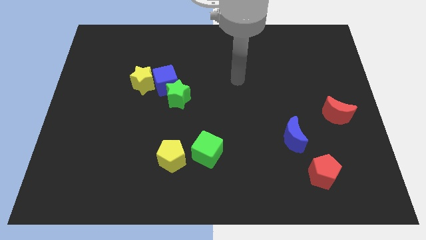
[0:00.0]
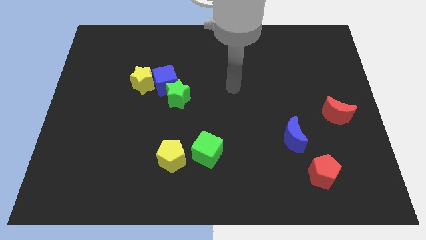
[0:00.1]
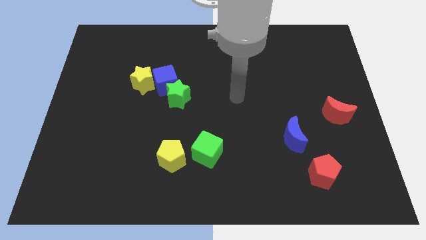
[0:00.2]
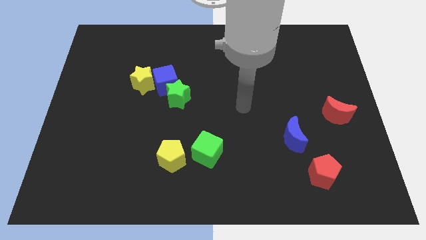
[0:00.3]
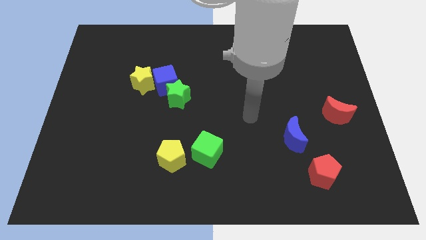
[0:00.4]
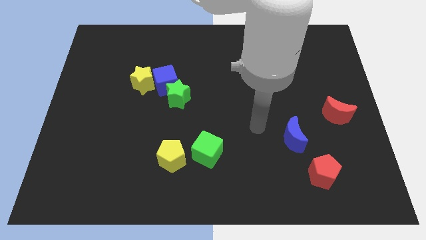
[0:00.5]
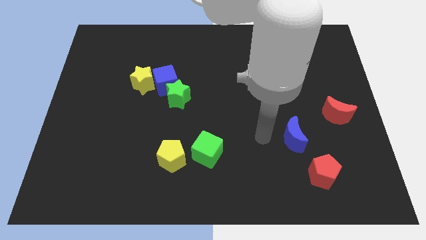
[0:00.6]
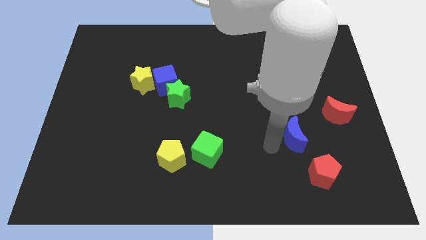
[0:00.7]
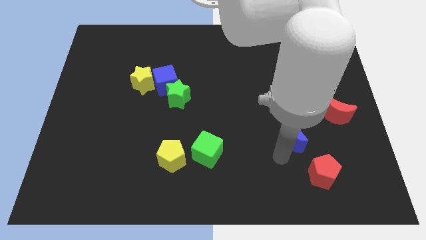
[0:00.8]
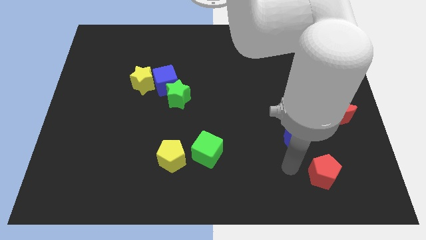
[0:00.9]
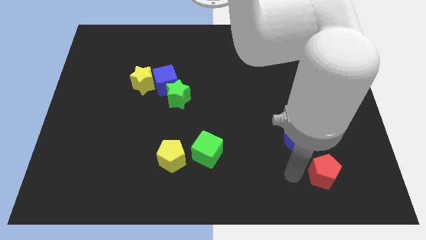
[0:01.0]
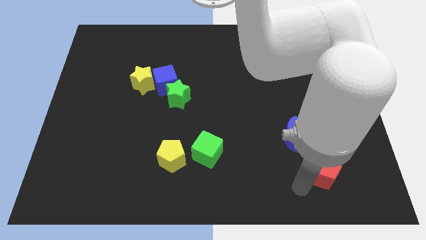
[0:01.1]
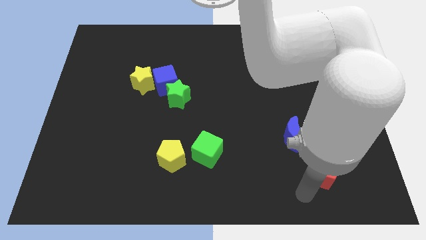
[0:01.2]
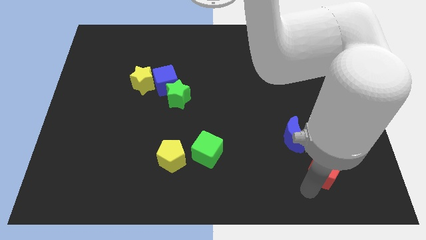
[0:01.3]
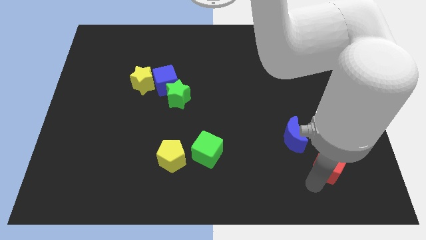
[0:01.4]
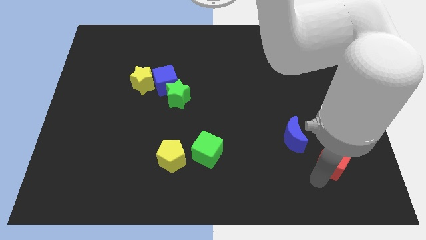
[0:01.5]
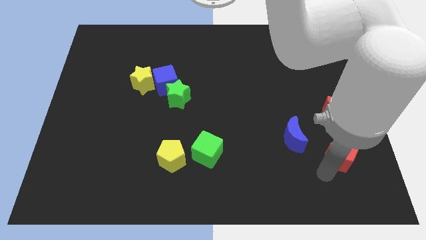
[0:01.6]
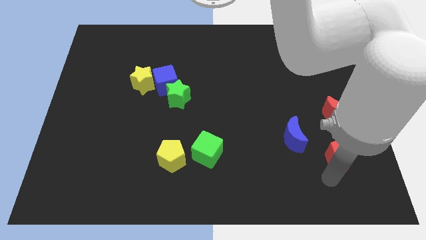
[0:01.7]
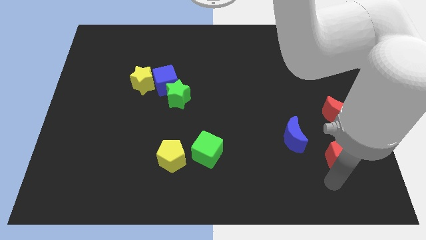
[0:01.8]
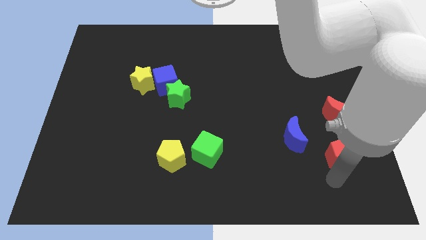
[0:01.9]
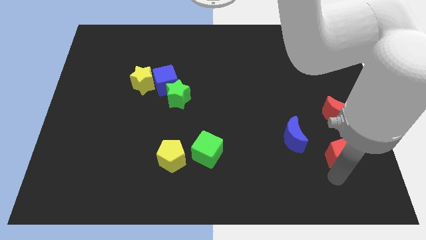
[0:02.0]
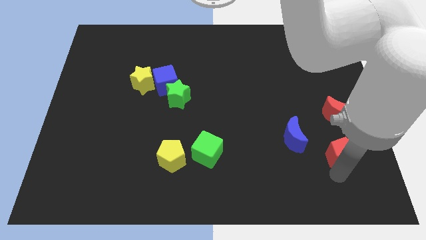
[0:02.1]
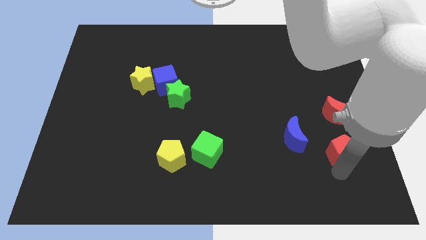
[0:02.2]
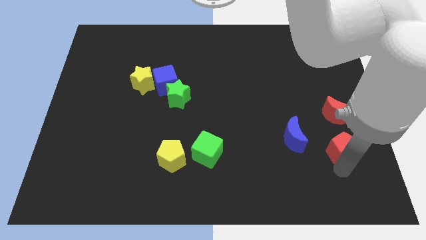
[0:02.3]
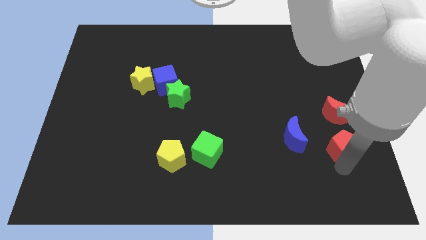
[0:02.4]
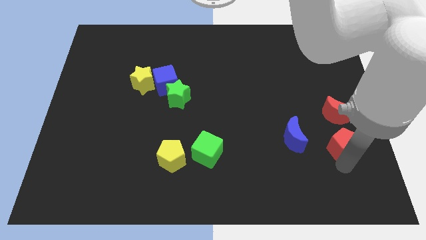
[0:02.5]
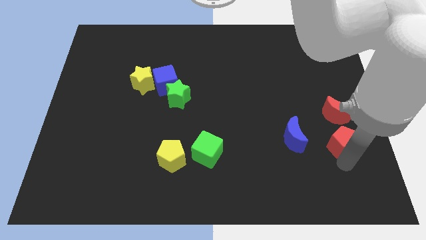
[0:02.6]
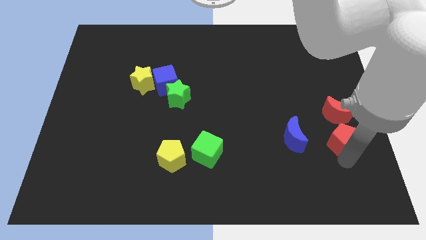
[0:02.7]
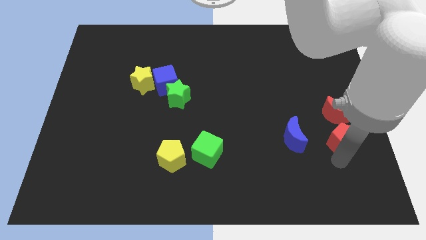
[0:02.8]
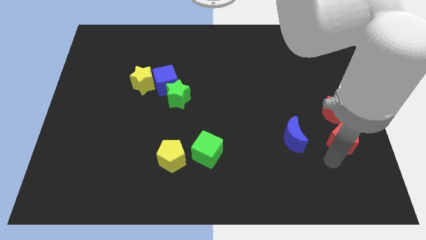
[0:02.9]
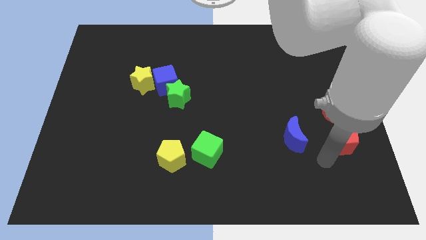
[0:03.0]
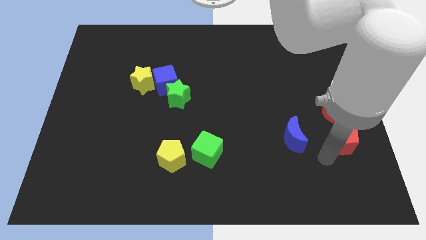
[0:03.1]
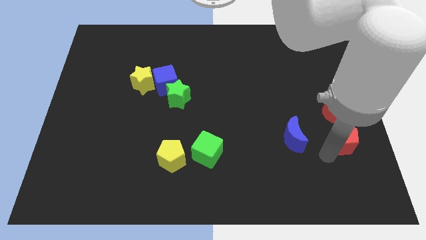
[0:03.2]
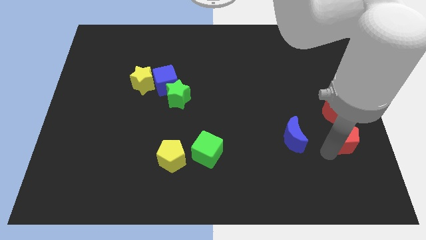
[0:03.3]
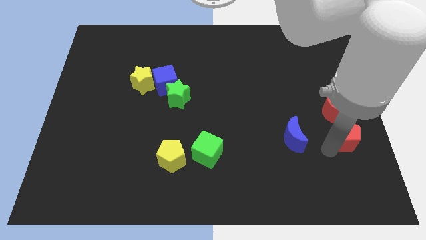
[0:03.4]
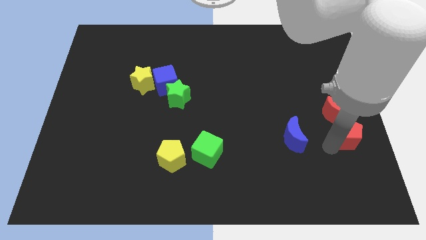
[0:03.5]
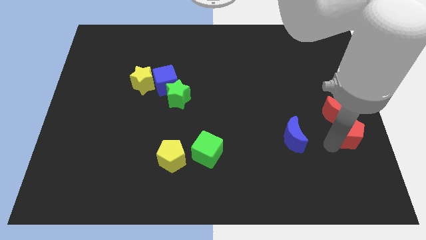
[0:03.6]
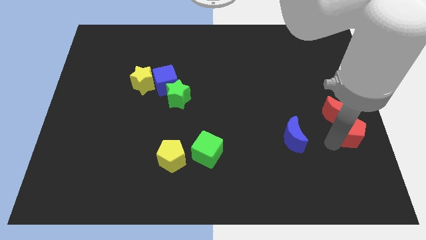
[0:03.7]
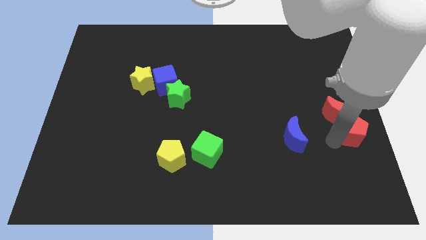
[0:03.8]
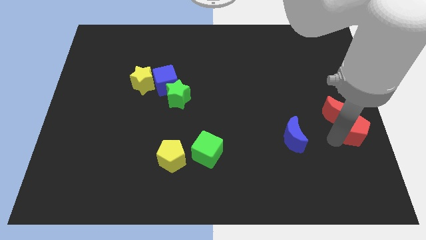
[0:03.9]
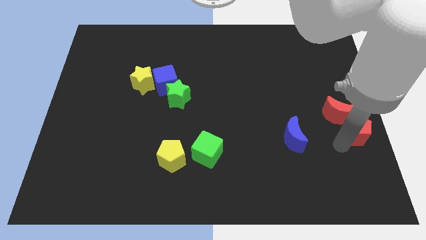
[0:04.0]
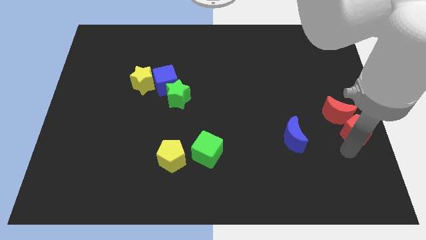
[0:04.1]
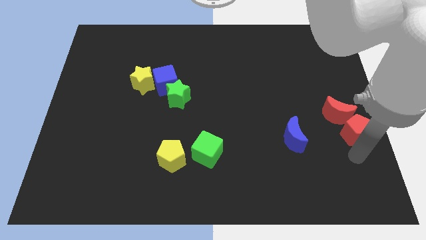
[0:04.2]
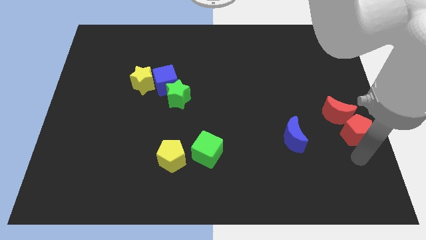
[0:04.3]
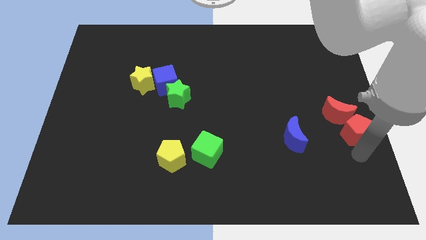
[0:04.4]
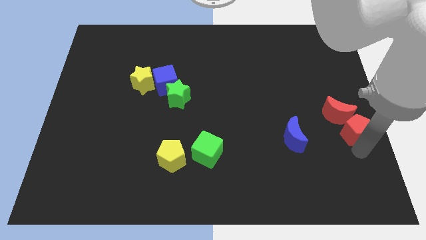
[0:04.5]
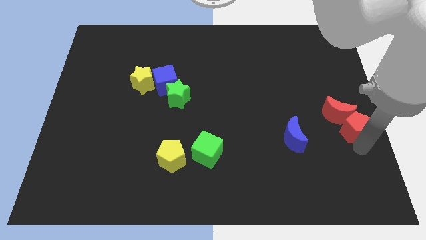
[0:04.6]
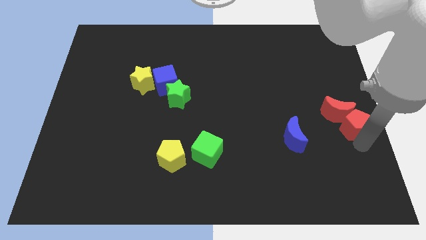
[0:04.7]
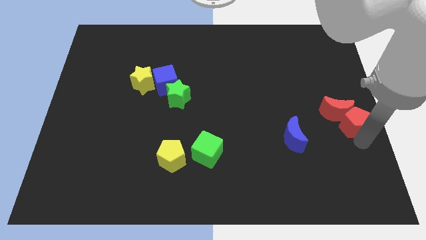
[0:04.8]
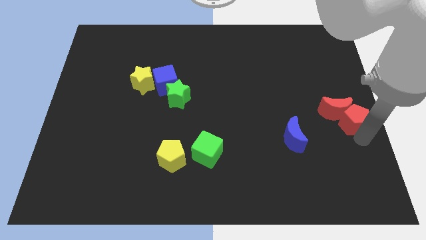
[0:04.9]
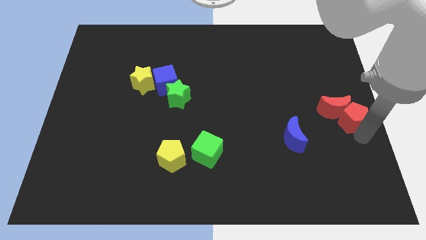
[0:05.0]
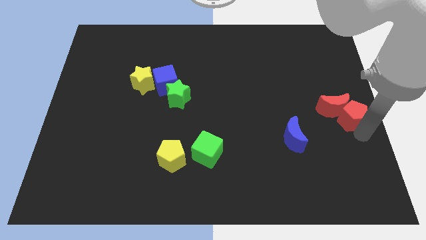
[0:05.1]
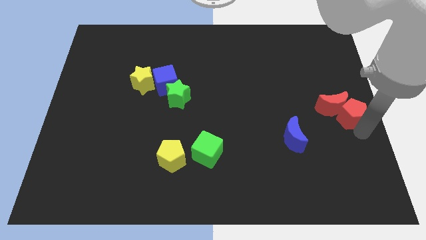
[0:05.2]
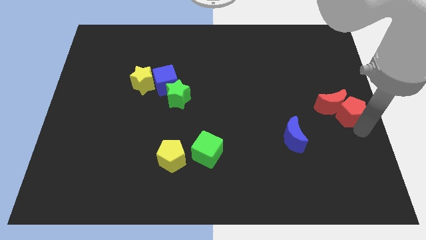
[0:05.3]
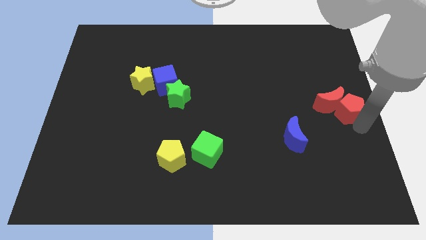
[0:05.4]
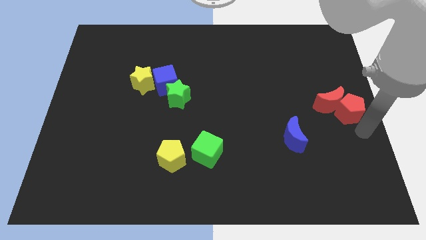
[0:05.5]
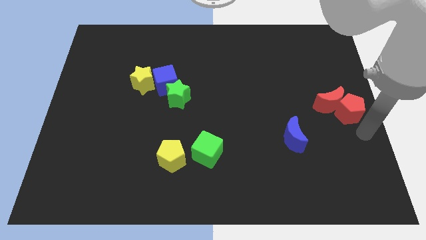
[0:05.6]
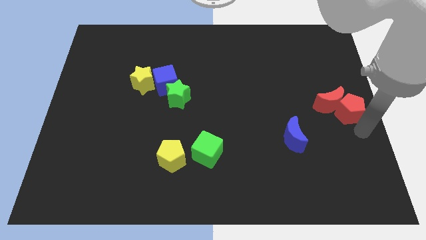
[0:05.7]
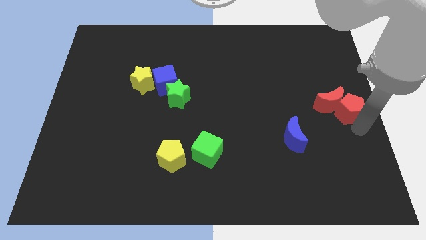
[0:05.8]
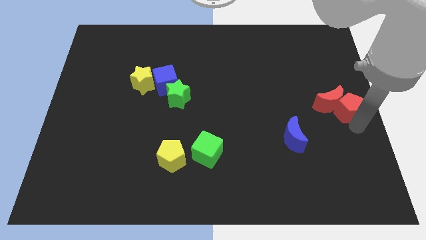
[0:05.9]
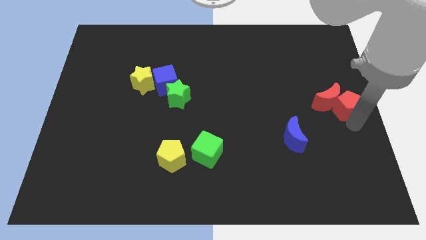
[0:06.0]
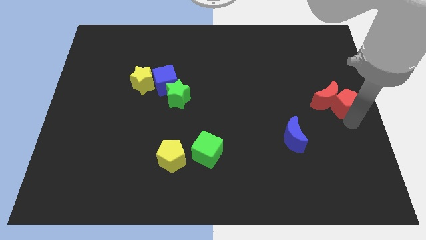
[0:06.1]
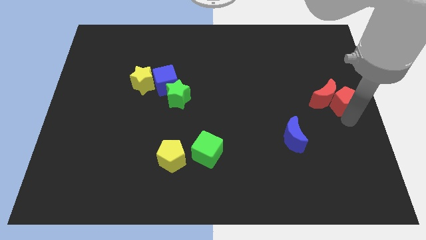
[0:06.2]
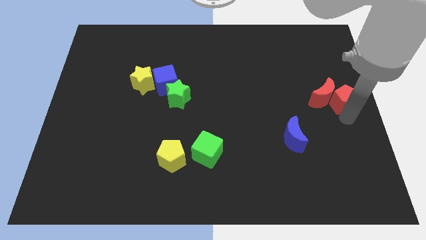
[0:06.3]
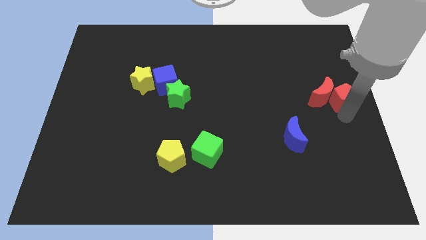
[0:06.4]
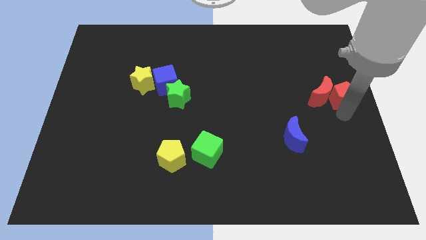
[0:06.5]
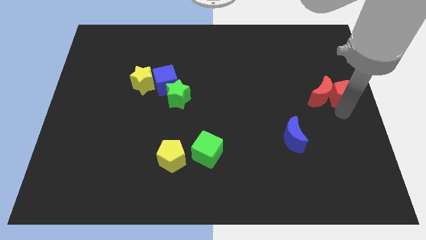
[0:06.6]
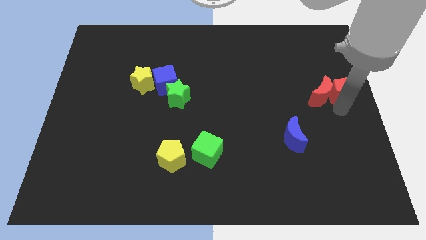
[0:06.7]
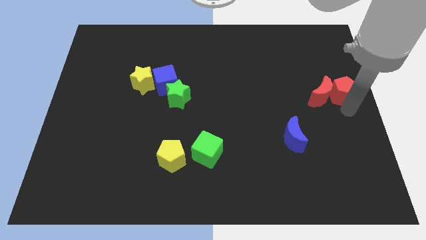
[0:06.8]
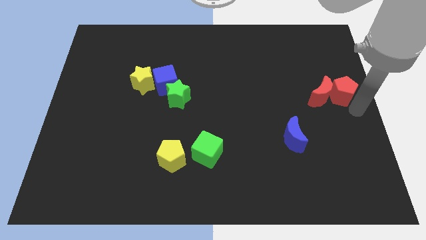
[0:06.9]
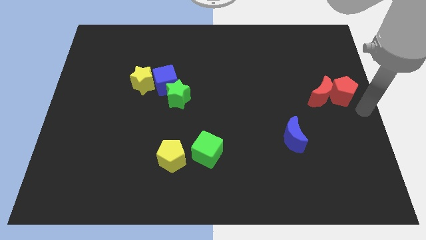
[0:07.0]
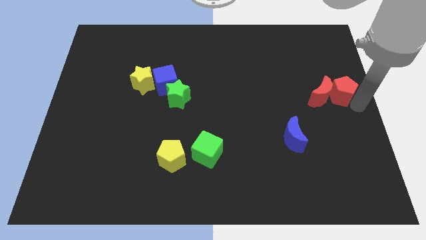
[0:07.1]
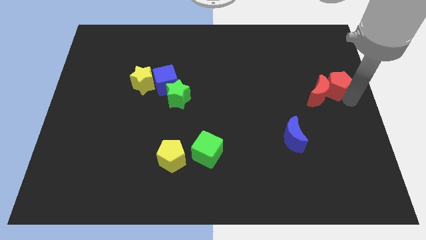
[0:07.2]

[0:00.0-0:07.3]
move the red pentagon up

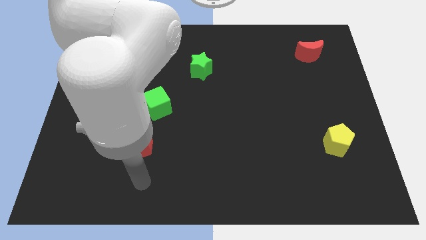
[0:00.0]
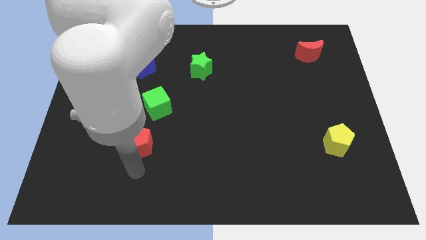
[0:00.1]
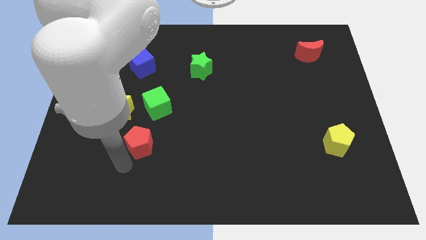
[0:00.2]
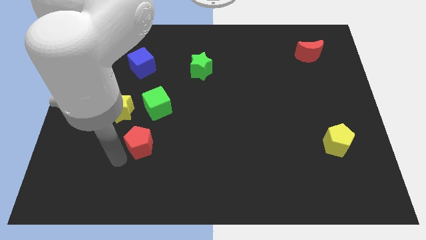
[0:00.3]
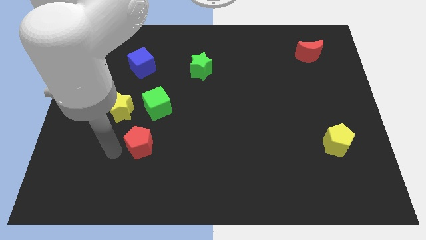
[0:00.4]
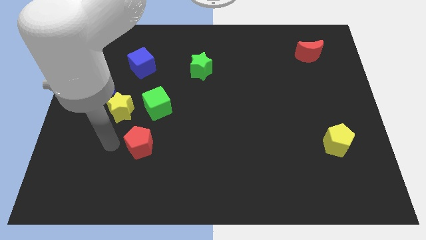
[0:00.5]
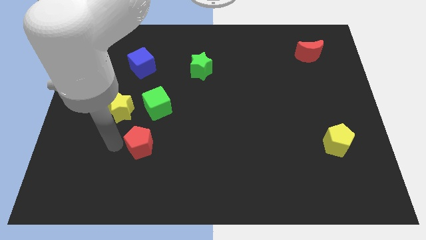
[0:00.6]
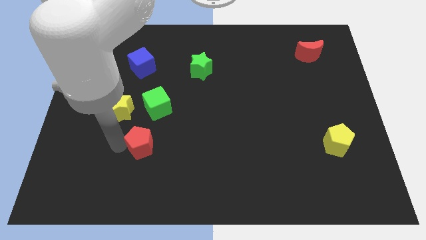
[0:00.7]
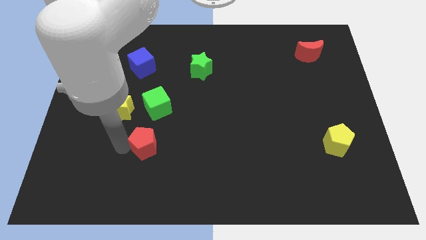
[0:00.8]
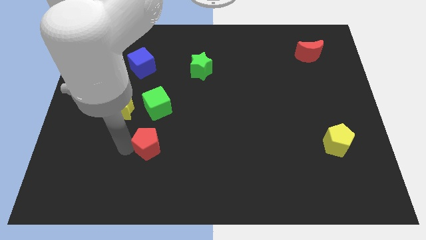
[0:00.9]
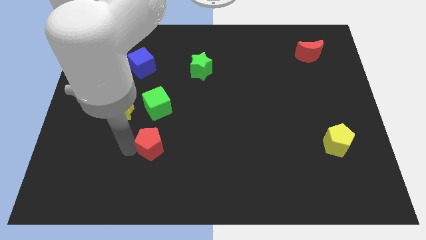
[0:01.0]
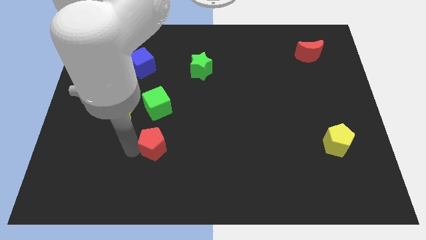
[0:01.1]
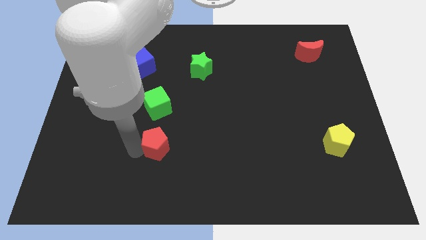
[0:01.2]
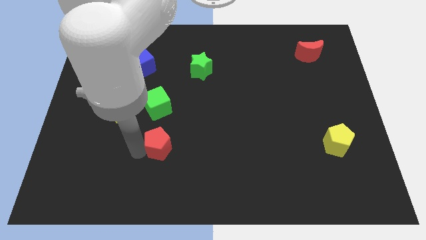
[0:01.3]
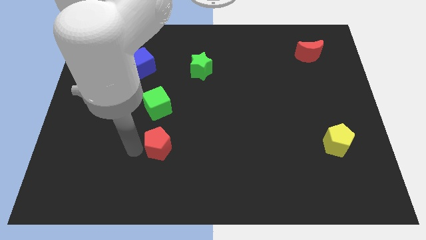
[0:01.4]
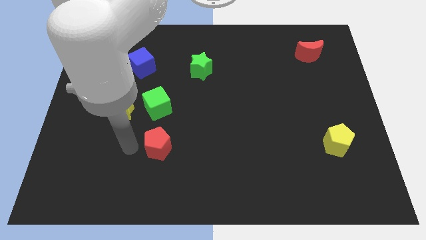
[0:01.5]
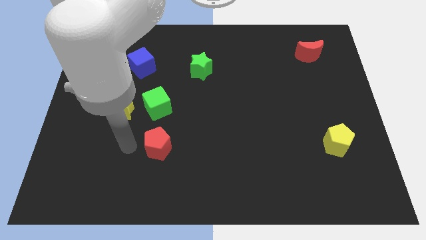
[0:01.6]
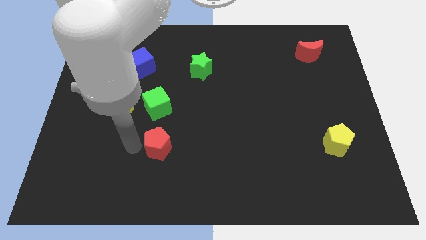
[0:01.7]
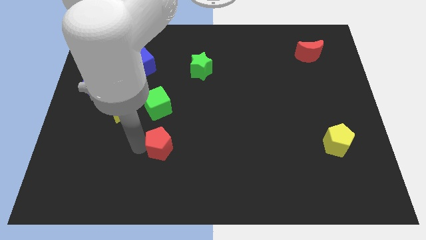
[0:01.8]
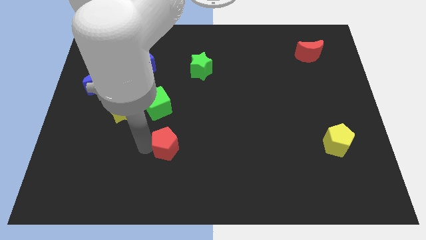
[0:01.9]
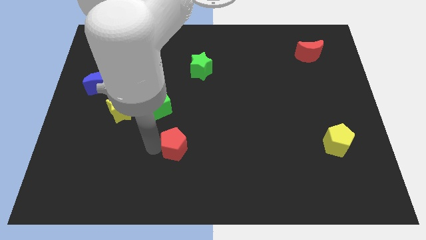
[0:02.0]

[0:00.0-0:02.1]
move the red pentagon right a bit
